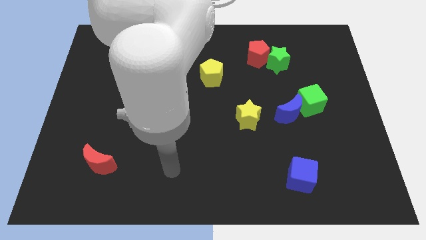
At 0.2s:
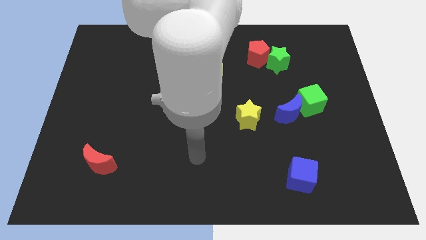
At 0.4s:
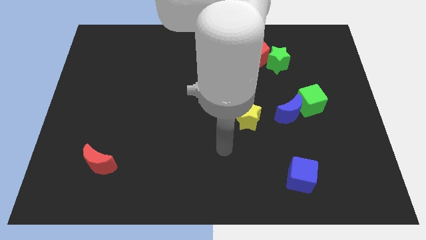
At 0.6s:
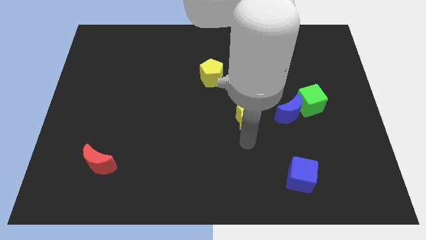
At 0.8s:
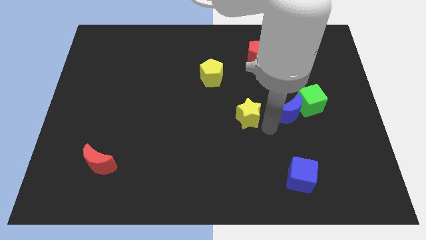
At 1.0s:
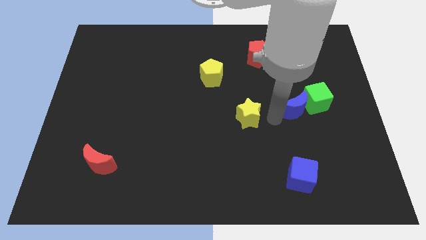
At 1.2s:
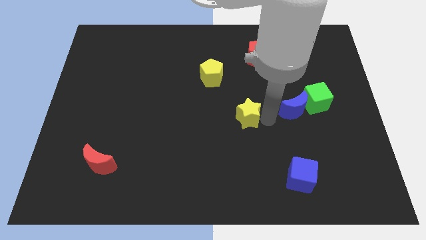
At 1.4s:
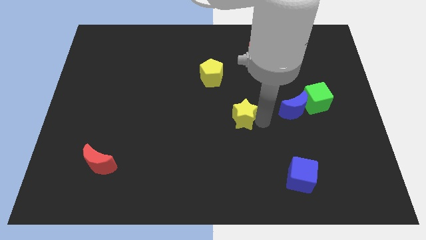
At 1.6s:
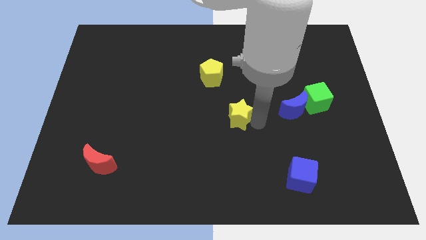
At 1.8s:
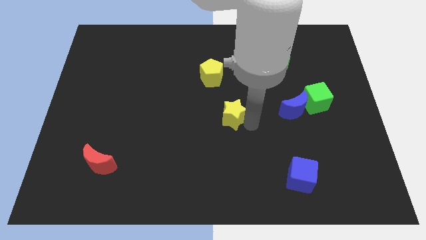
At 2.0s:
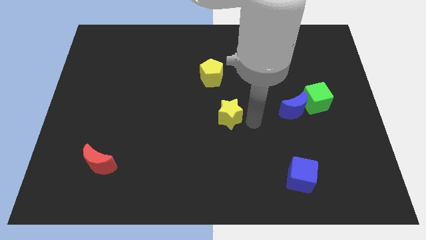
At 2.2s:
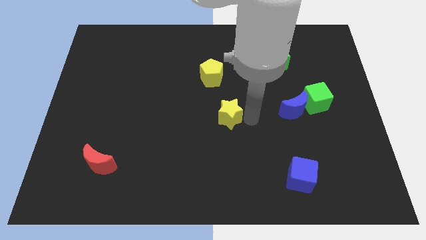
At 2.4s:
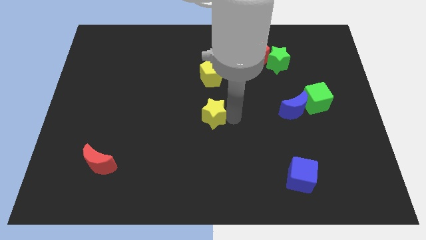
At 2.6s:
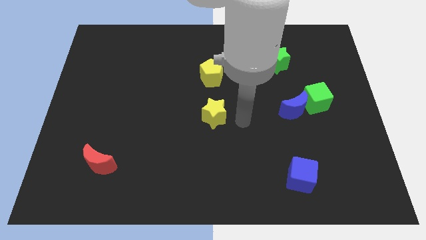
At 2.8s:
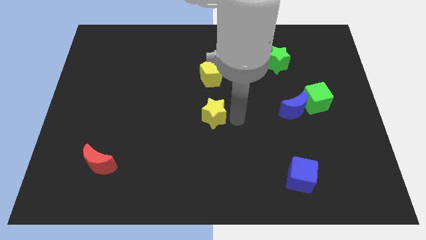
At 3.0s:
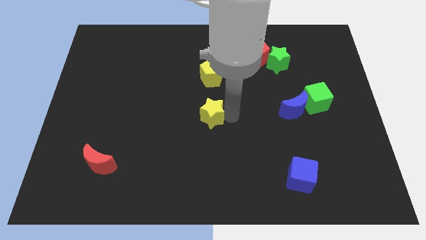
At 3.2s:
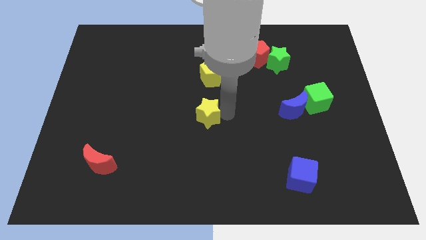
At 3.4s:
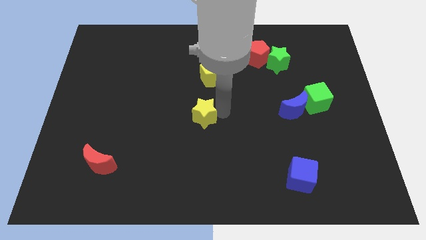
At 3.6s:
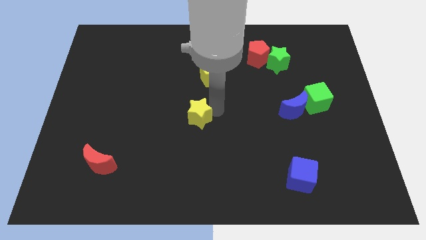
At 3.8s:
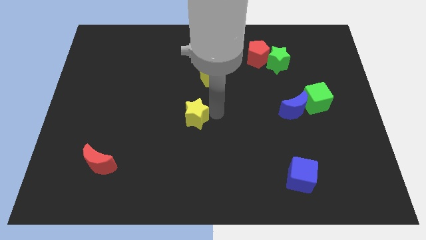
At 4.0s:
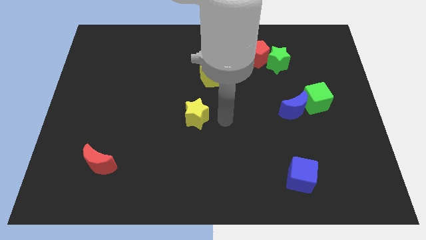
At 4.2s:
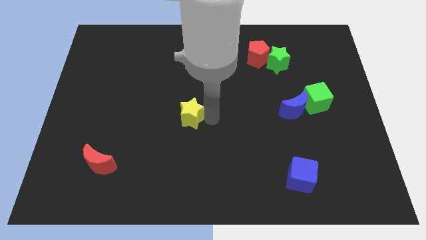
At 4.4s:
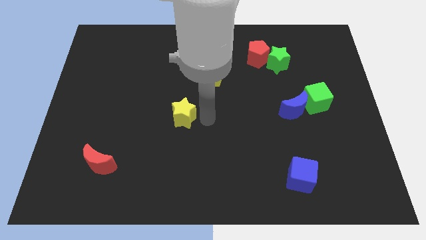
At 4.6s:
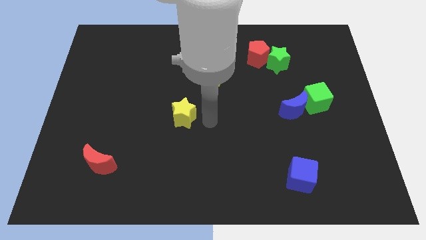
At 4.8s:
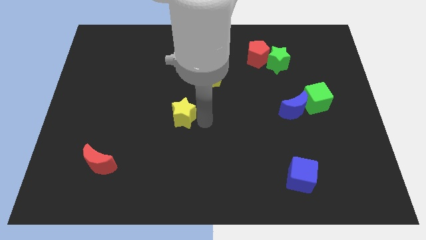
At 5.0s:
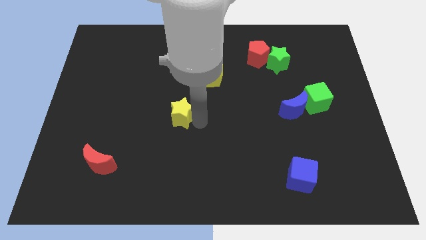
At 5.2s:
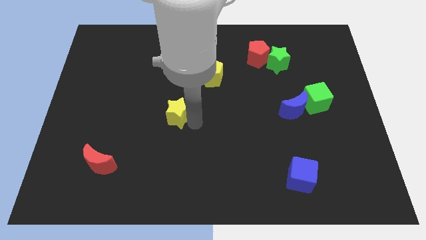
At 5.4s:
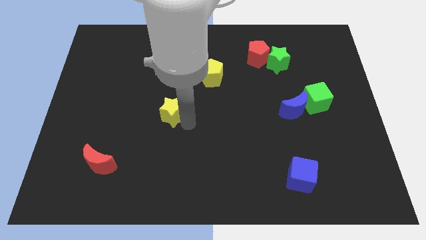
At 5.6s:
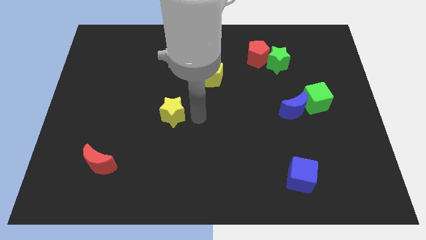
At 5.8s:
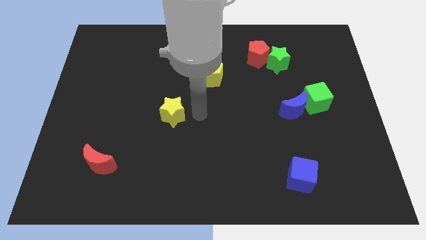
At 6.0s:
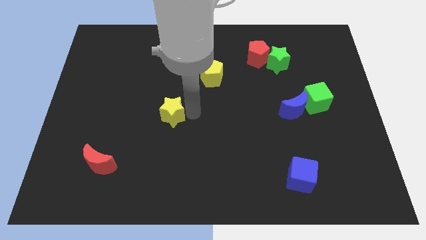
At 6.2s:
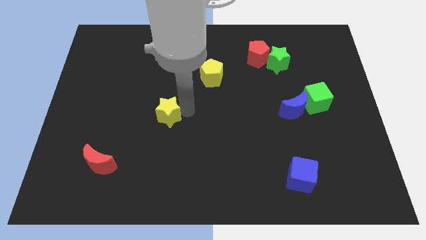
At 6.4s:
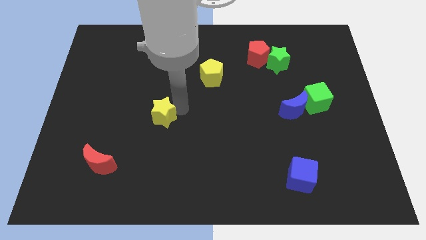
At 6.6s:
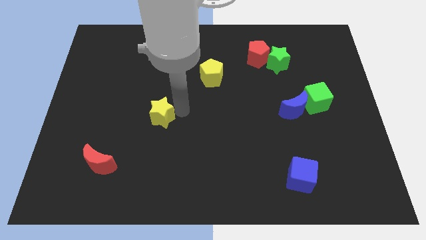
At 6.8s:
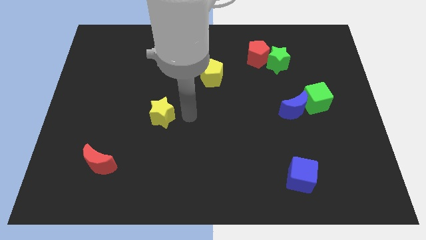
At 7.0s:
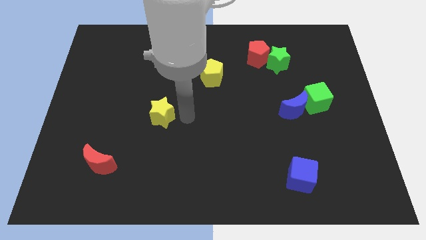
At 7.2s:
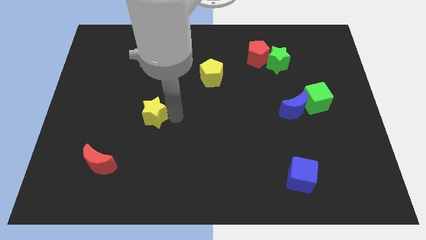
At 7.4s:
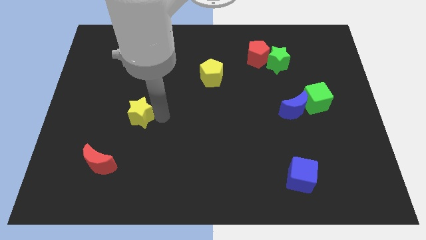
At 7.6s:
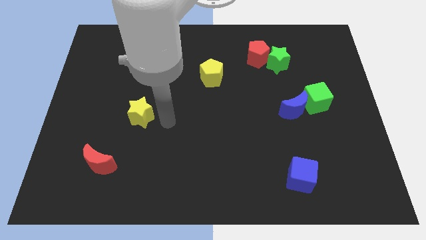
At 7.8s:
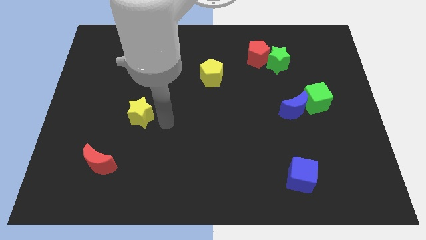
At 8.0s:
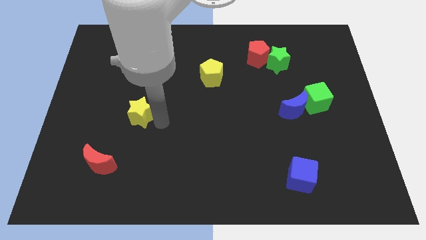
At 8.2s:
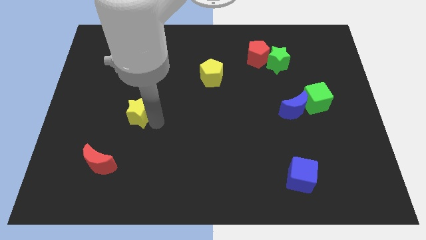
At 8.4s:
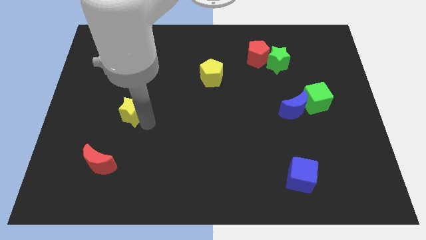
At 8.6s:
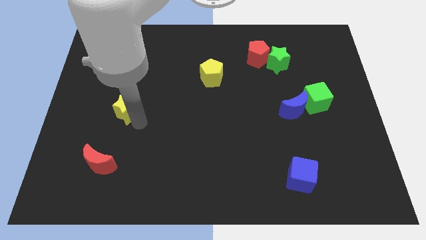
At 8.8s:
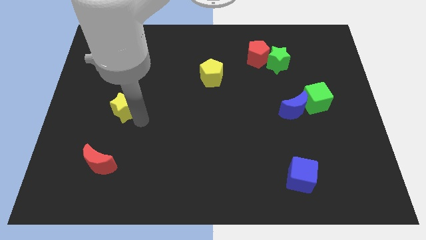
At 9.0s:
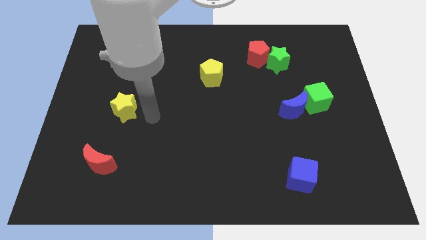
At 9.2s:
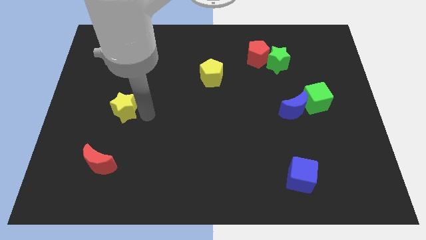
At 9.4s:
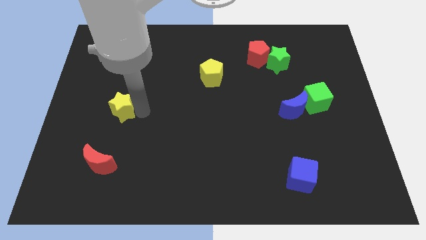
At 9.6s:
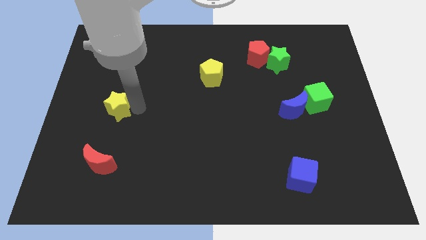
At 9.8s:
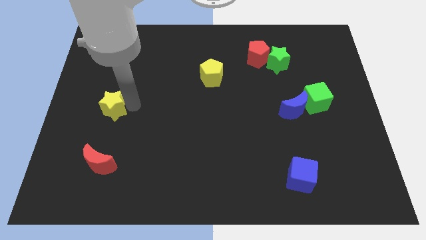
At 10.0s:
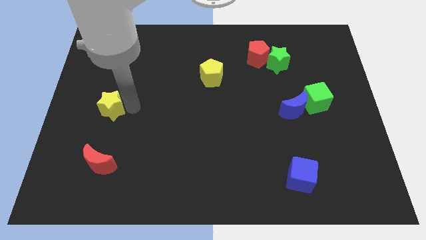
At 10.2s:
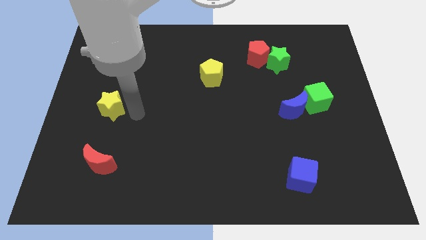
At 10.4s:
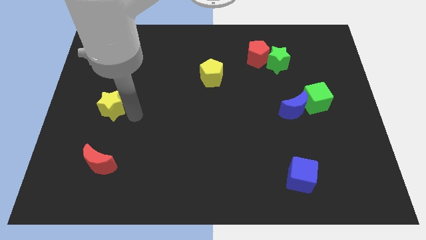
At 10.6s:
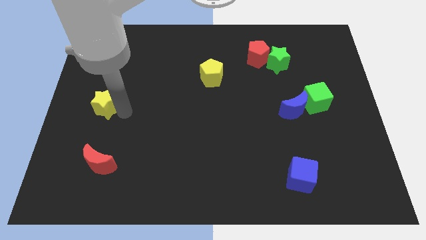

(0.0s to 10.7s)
move the yellow star to the left side of the board

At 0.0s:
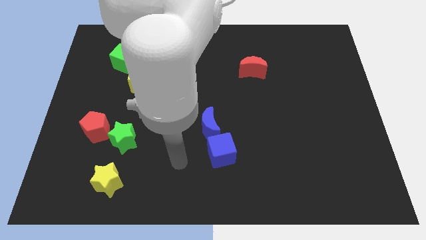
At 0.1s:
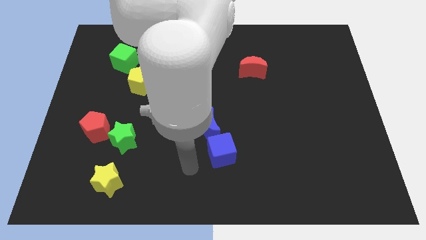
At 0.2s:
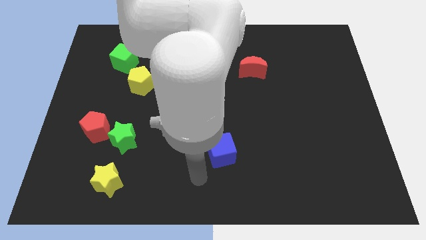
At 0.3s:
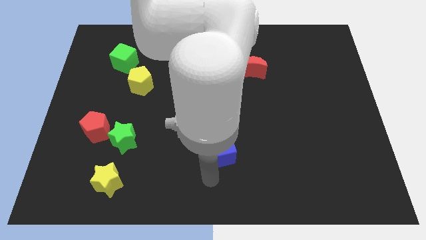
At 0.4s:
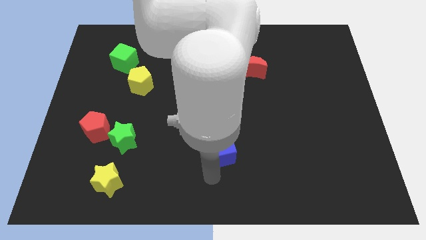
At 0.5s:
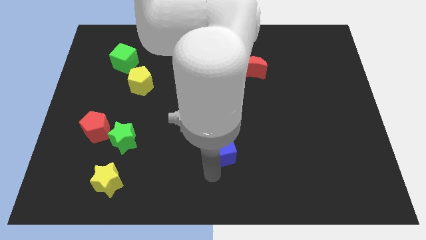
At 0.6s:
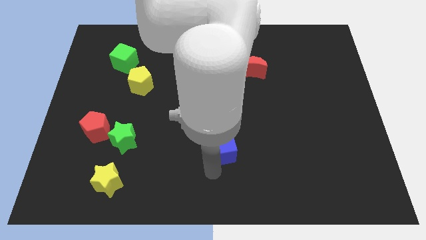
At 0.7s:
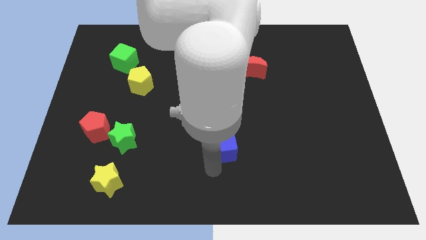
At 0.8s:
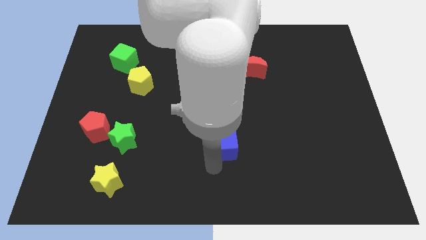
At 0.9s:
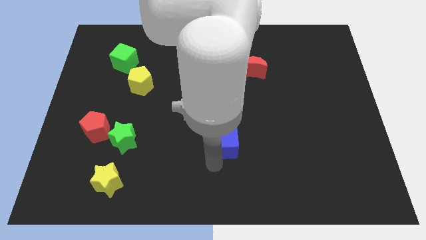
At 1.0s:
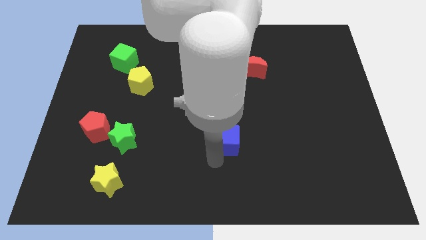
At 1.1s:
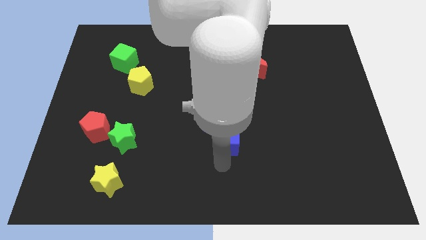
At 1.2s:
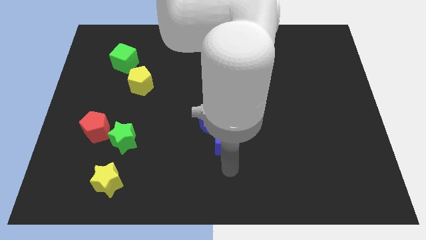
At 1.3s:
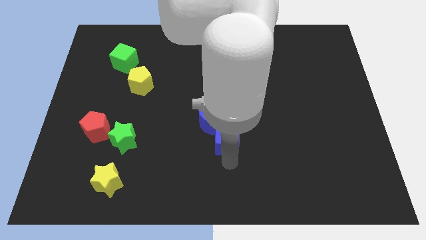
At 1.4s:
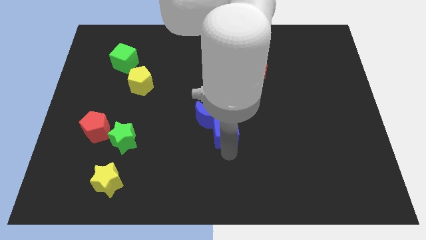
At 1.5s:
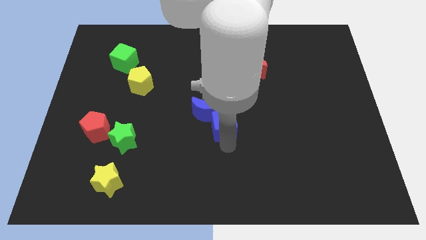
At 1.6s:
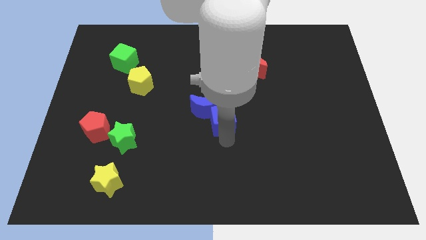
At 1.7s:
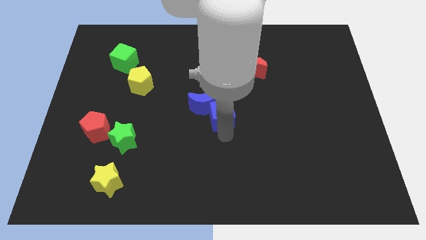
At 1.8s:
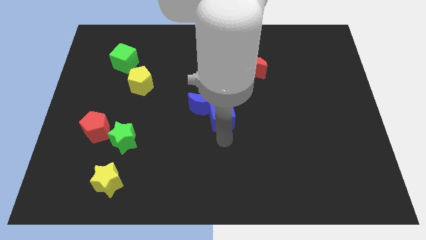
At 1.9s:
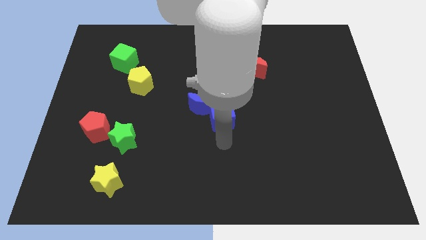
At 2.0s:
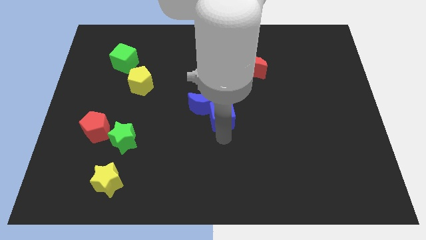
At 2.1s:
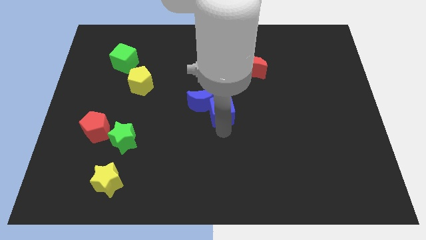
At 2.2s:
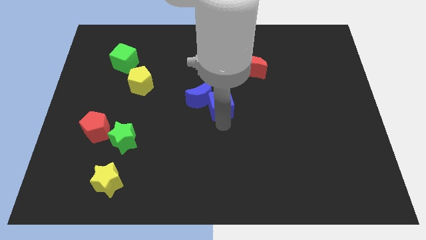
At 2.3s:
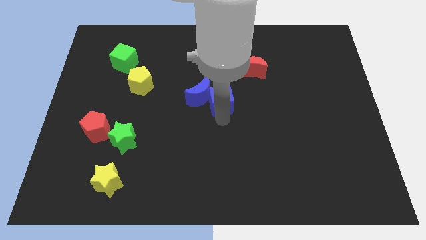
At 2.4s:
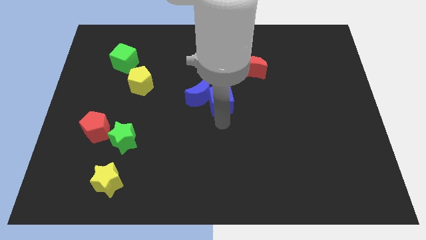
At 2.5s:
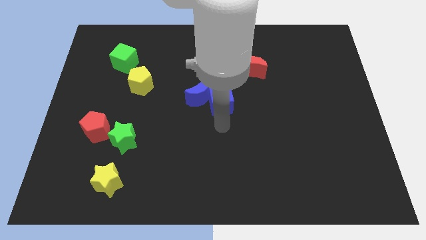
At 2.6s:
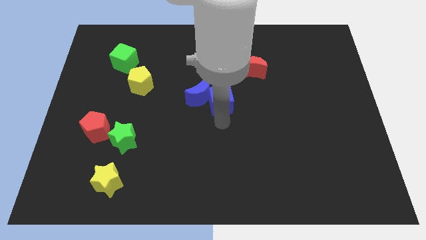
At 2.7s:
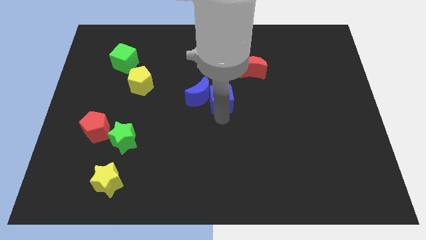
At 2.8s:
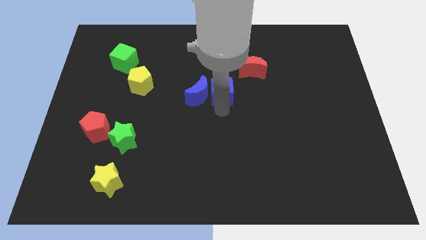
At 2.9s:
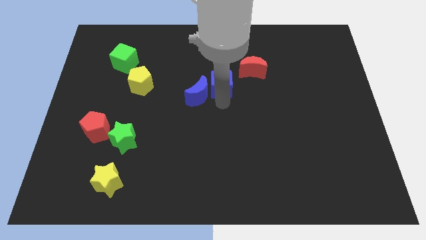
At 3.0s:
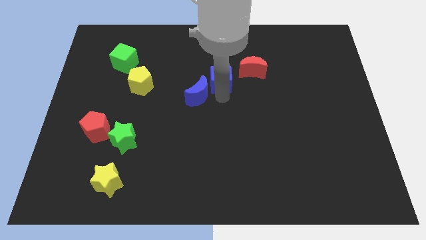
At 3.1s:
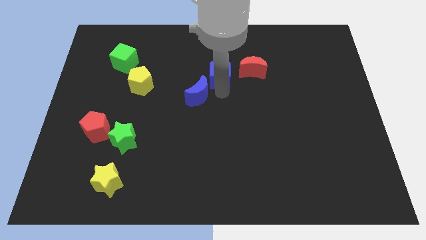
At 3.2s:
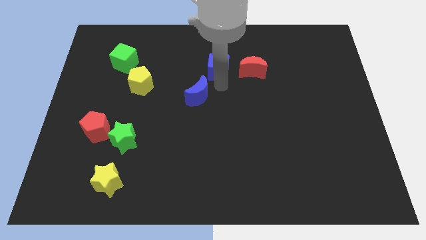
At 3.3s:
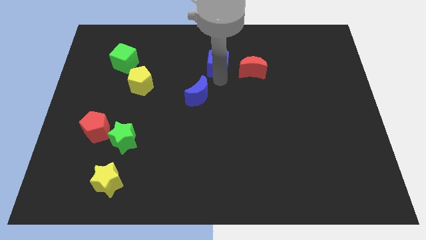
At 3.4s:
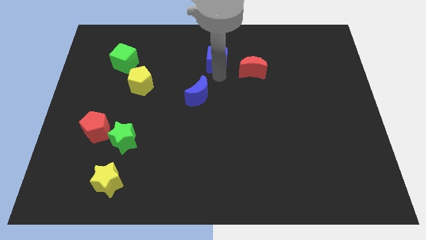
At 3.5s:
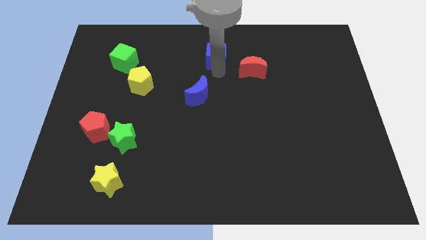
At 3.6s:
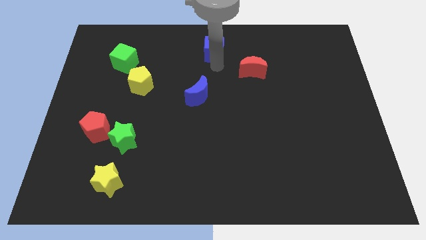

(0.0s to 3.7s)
push the blue cube to the top
